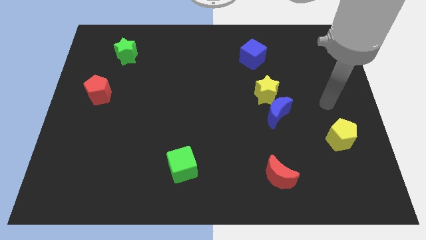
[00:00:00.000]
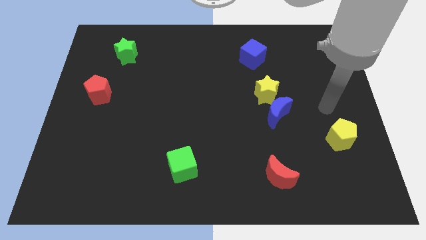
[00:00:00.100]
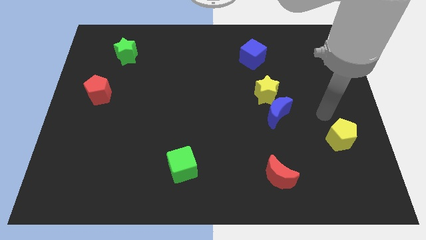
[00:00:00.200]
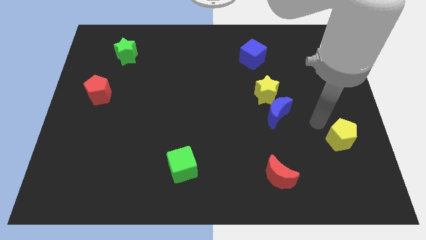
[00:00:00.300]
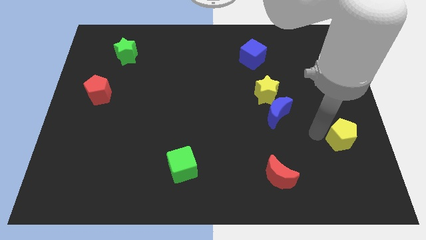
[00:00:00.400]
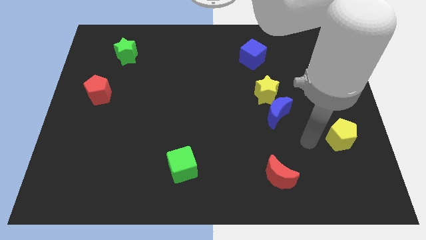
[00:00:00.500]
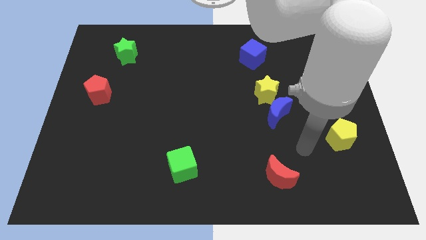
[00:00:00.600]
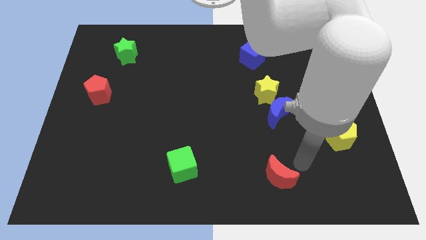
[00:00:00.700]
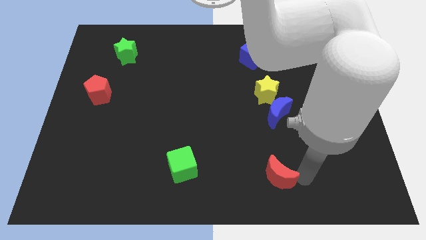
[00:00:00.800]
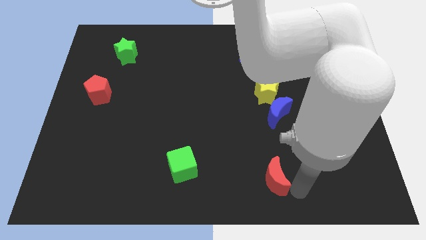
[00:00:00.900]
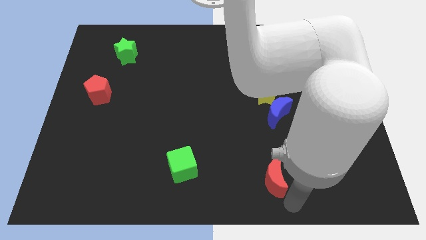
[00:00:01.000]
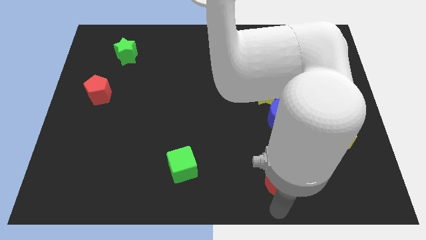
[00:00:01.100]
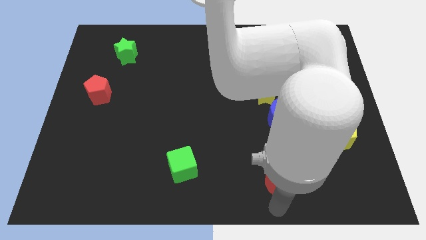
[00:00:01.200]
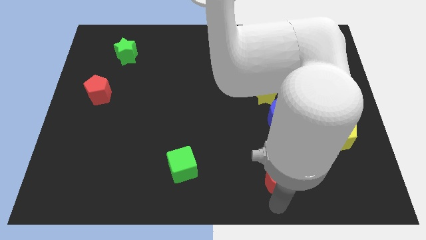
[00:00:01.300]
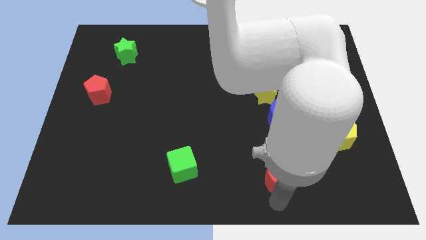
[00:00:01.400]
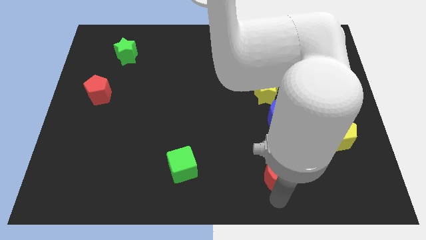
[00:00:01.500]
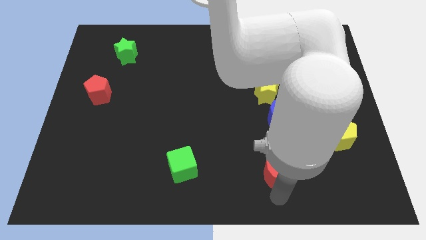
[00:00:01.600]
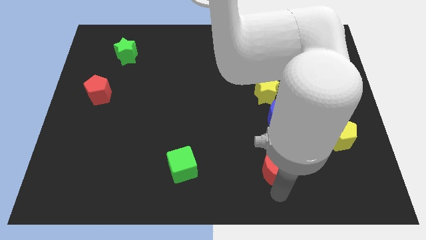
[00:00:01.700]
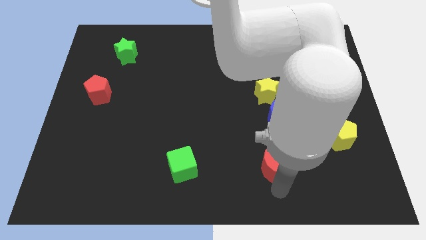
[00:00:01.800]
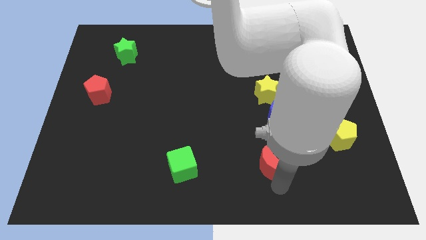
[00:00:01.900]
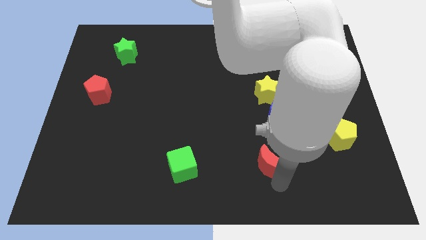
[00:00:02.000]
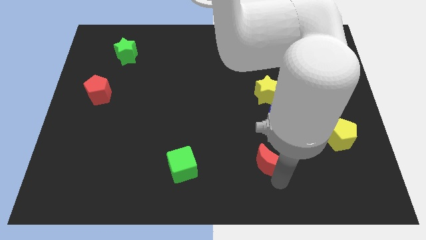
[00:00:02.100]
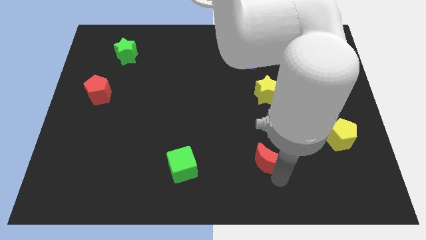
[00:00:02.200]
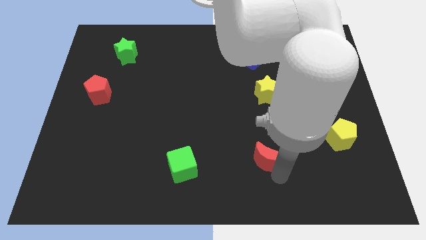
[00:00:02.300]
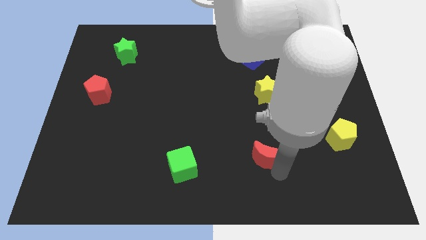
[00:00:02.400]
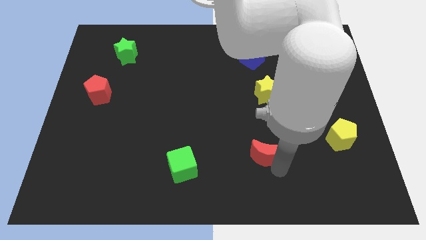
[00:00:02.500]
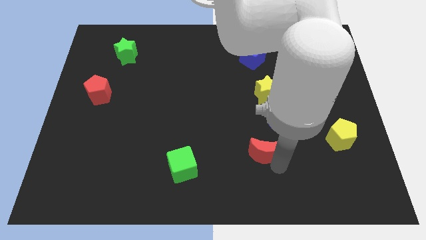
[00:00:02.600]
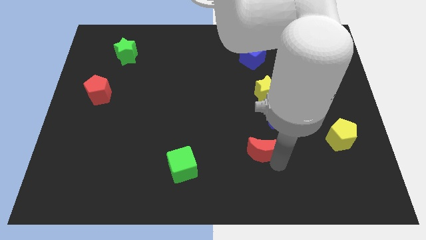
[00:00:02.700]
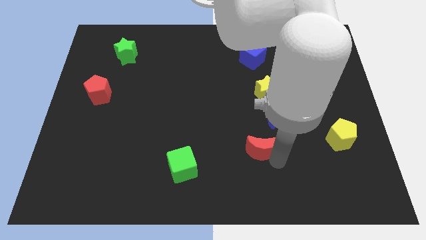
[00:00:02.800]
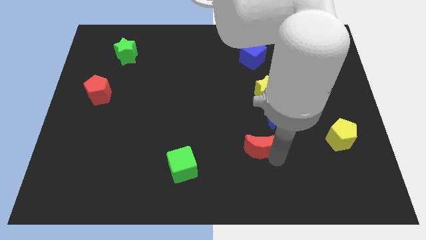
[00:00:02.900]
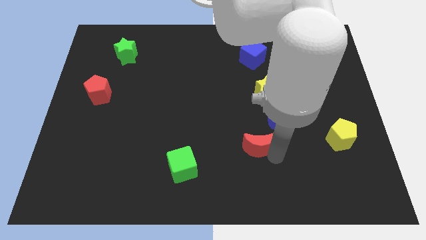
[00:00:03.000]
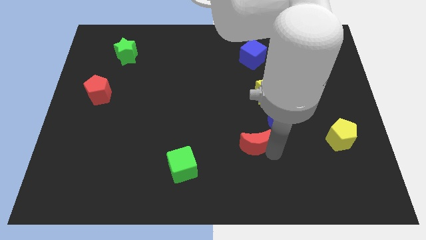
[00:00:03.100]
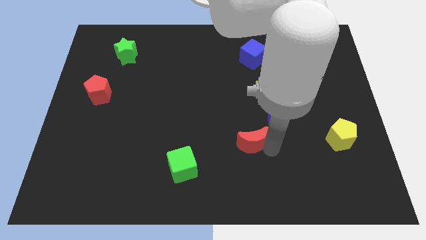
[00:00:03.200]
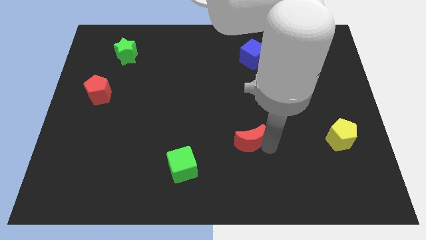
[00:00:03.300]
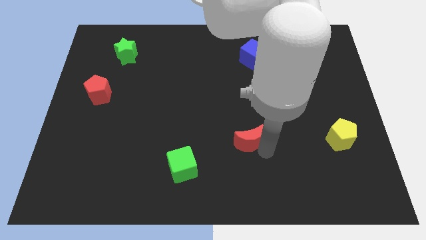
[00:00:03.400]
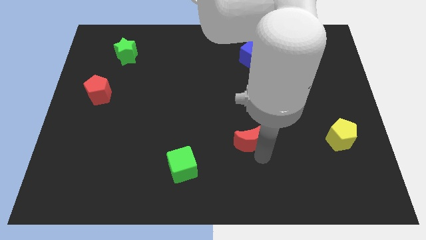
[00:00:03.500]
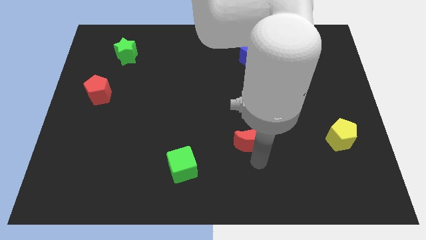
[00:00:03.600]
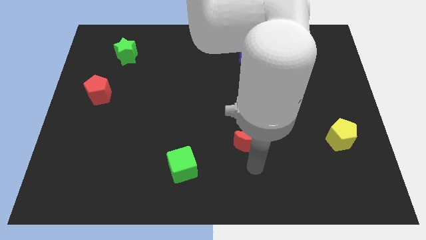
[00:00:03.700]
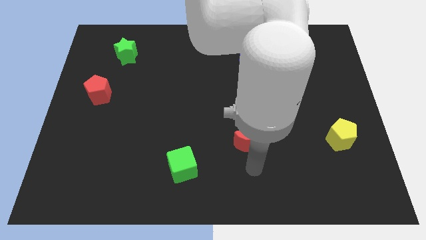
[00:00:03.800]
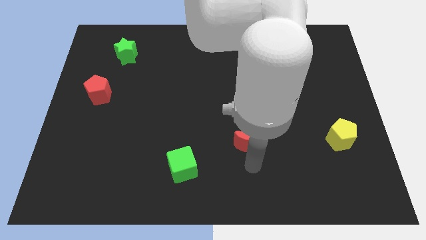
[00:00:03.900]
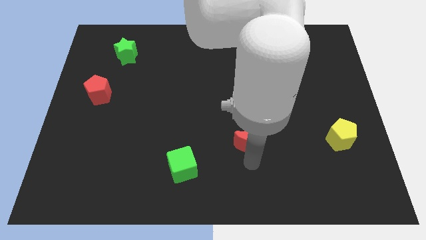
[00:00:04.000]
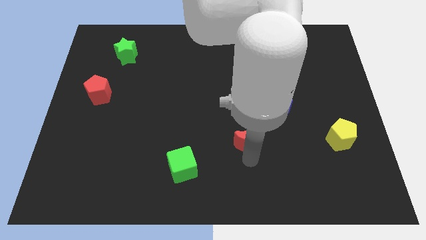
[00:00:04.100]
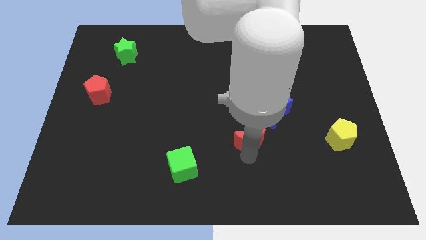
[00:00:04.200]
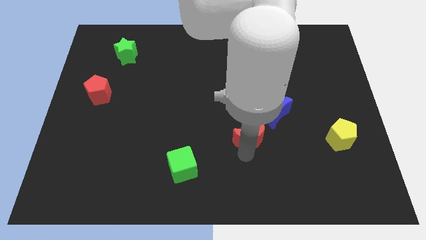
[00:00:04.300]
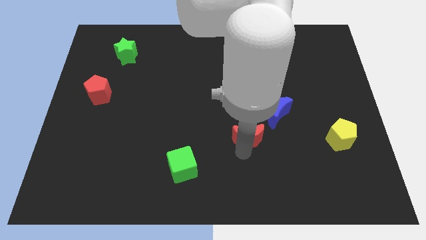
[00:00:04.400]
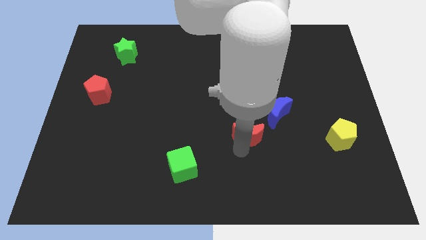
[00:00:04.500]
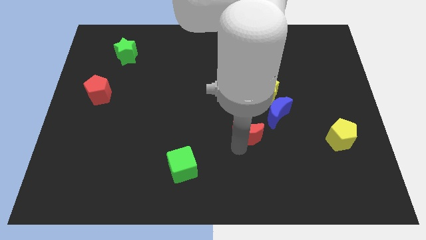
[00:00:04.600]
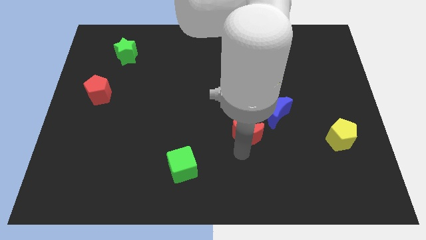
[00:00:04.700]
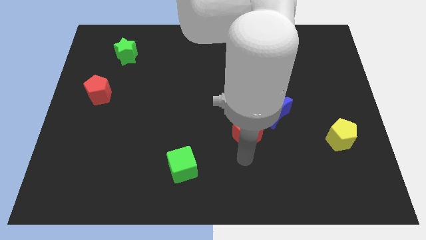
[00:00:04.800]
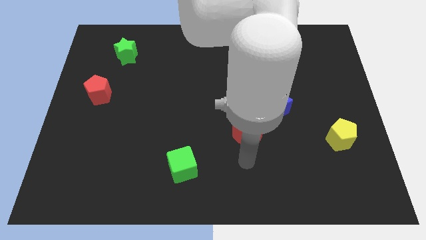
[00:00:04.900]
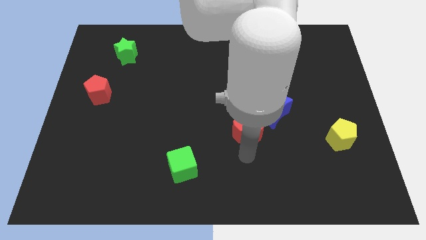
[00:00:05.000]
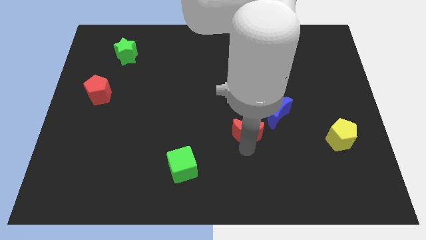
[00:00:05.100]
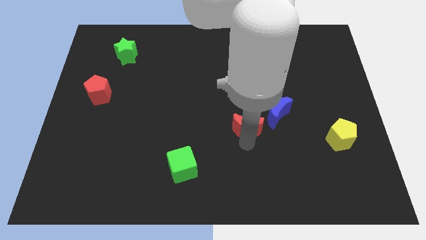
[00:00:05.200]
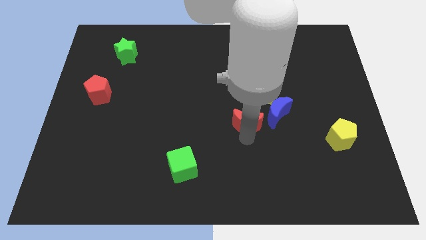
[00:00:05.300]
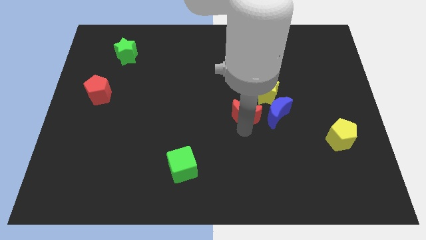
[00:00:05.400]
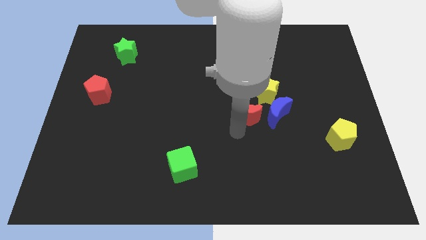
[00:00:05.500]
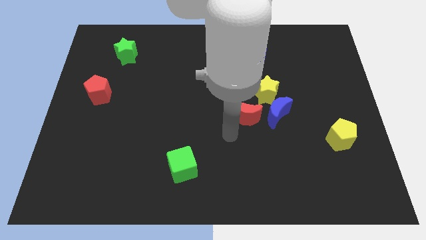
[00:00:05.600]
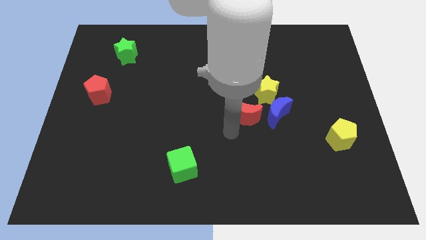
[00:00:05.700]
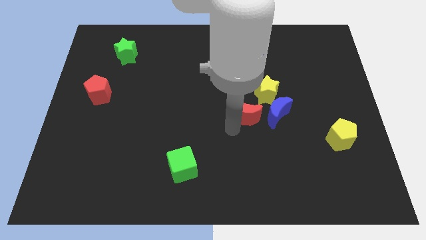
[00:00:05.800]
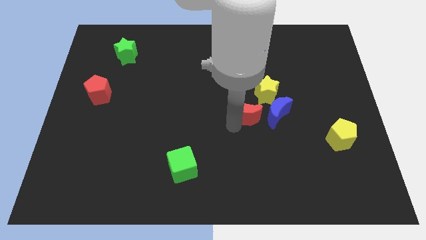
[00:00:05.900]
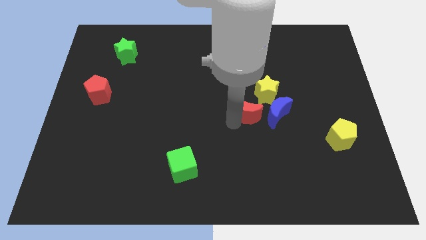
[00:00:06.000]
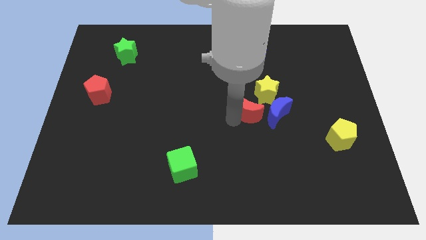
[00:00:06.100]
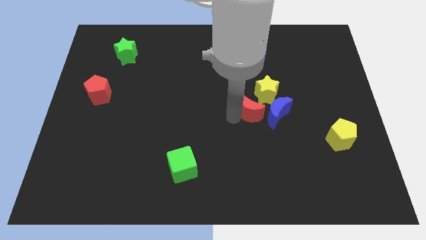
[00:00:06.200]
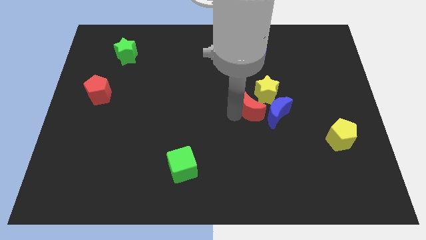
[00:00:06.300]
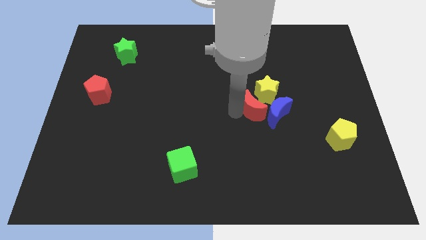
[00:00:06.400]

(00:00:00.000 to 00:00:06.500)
slide the red moon to the yellow star

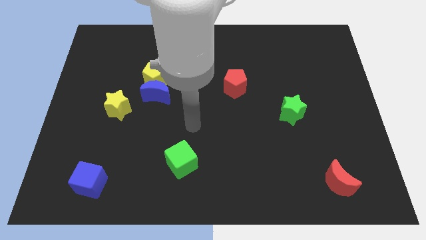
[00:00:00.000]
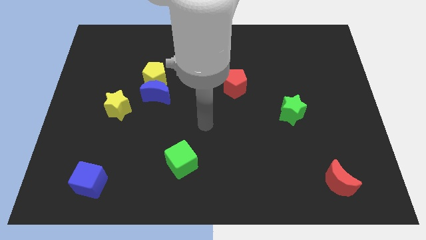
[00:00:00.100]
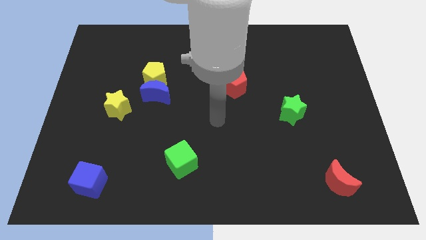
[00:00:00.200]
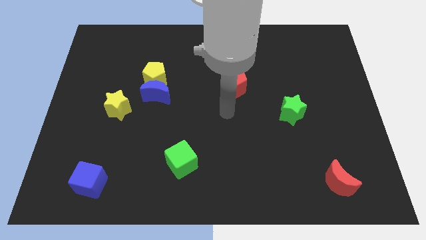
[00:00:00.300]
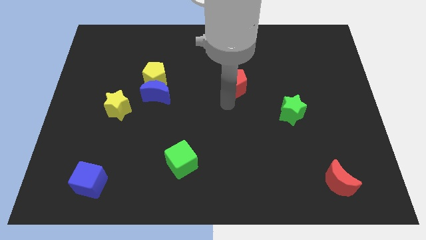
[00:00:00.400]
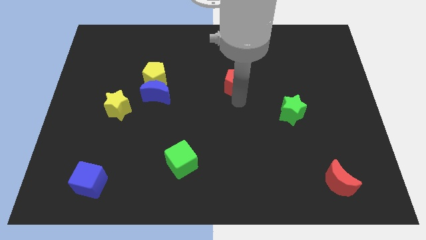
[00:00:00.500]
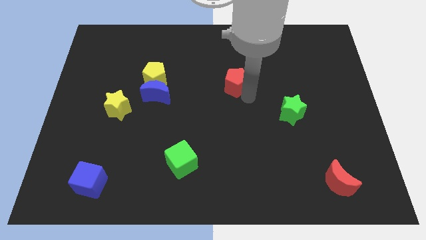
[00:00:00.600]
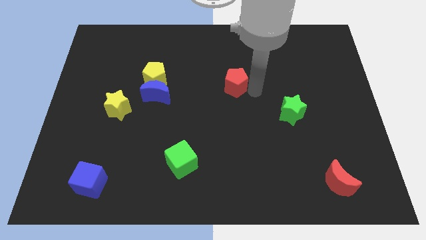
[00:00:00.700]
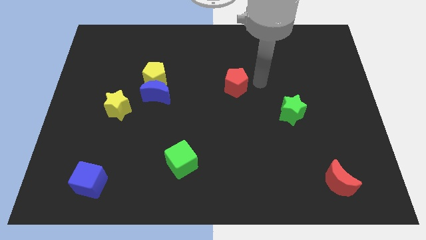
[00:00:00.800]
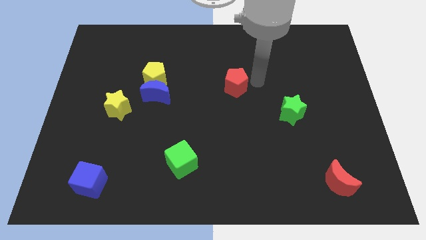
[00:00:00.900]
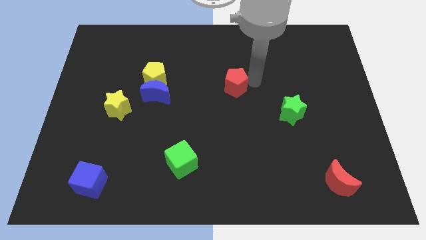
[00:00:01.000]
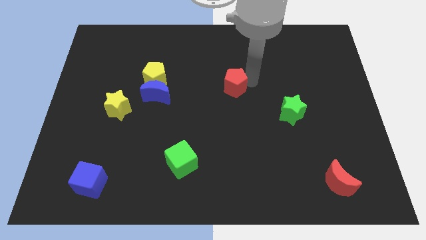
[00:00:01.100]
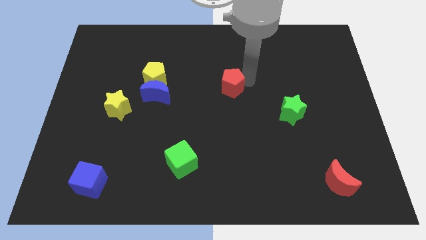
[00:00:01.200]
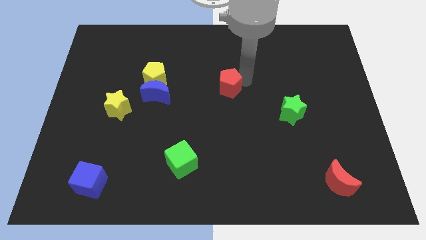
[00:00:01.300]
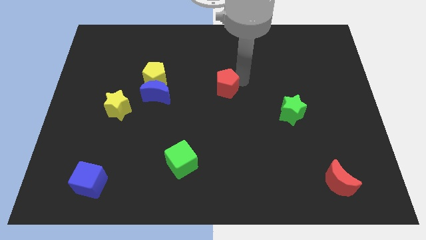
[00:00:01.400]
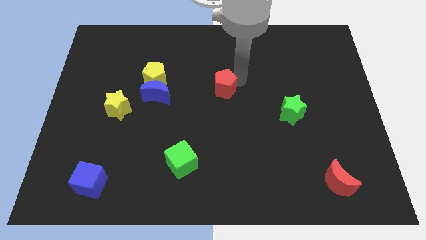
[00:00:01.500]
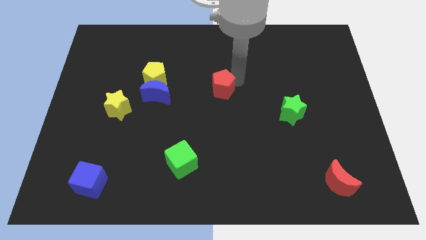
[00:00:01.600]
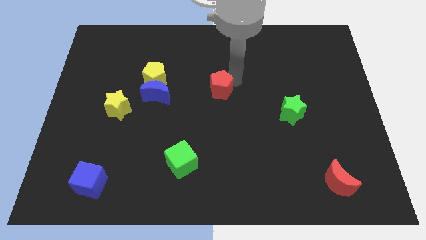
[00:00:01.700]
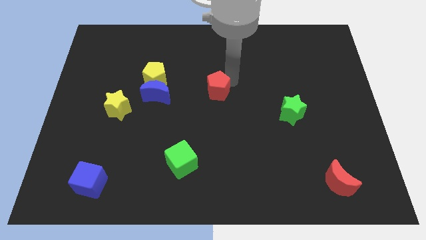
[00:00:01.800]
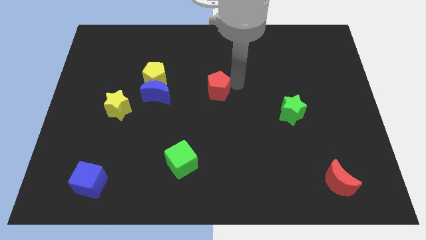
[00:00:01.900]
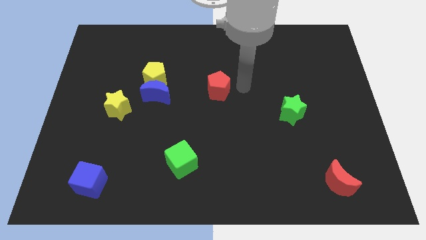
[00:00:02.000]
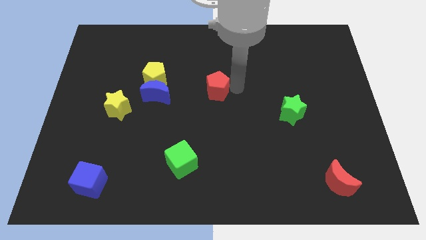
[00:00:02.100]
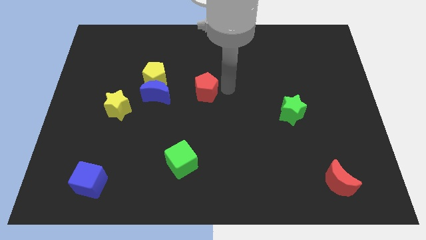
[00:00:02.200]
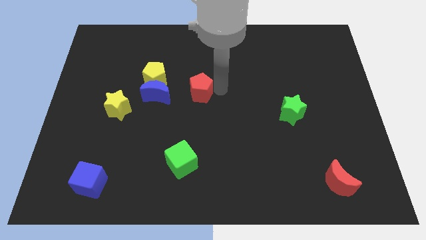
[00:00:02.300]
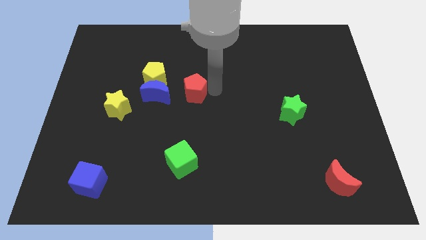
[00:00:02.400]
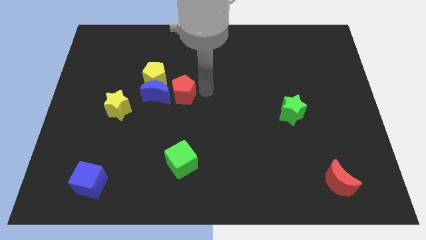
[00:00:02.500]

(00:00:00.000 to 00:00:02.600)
move the red pentagon towards the blue moon
